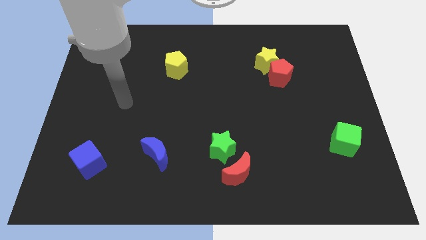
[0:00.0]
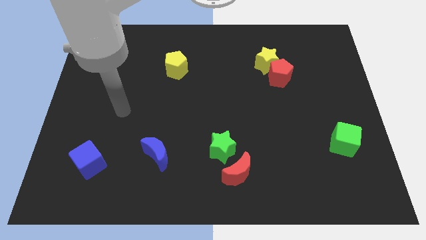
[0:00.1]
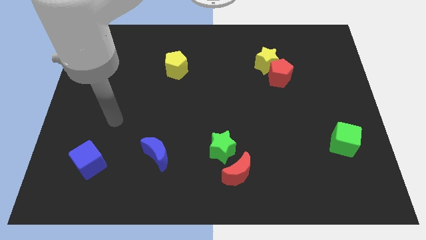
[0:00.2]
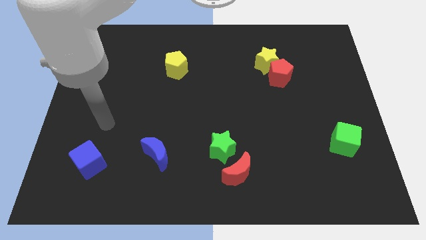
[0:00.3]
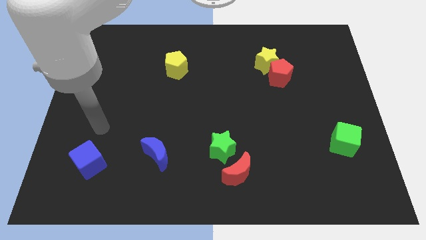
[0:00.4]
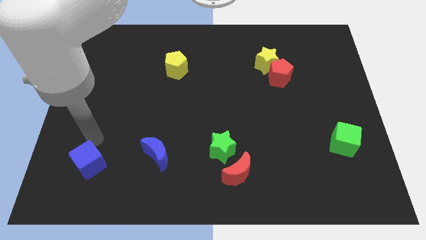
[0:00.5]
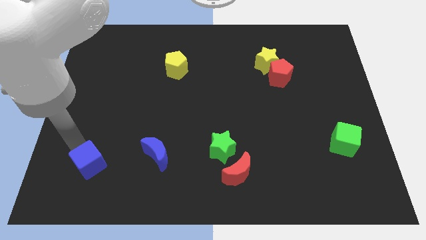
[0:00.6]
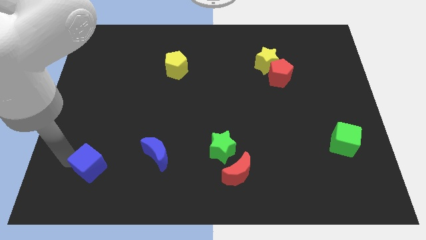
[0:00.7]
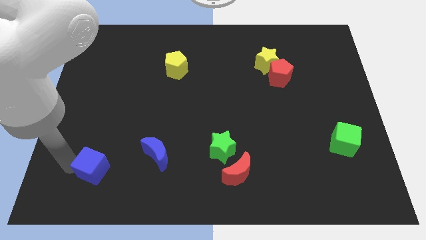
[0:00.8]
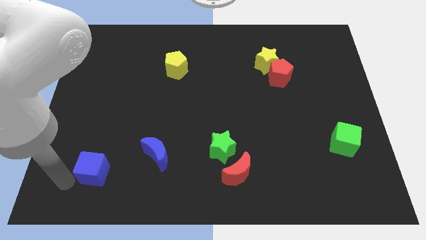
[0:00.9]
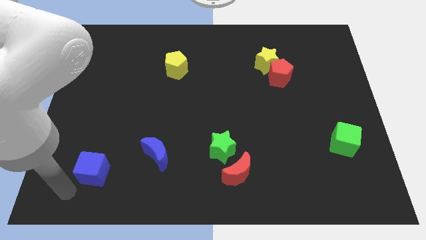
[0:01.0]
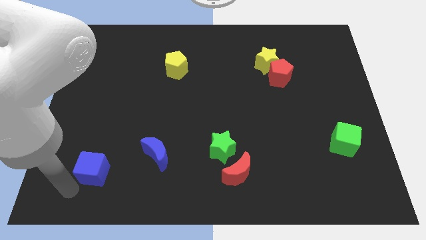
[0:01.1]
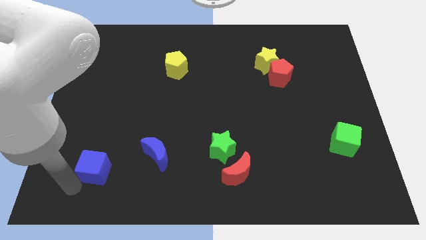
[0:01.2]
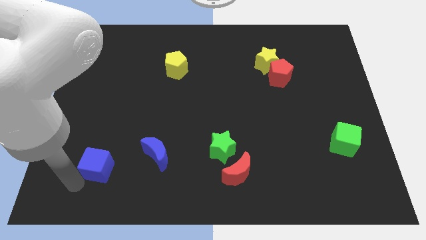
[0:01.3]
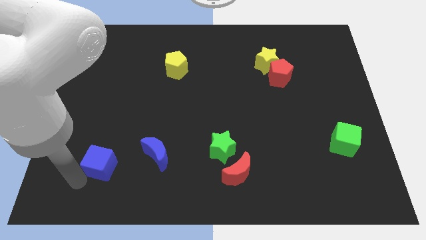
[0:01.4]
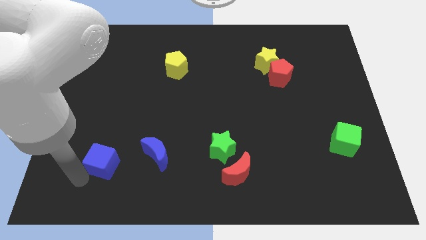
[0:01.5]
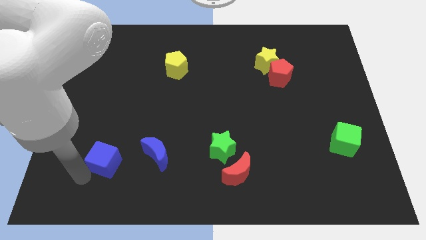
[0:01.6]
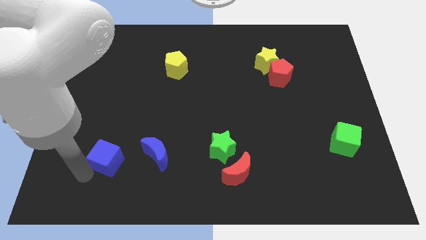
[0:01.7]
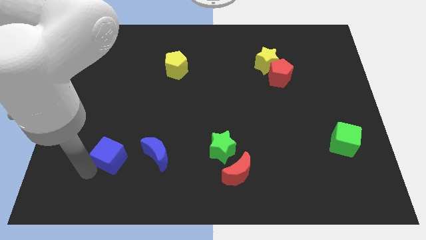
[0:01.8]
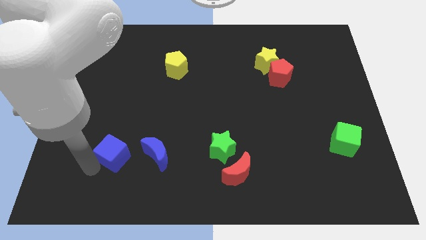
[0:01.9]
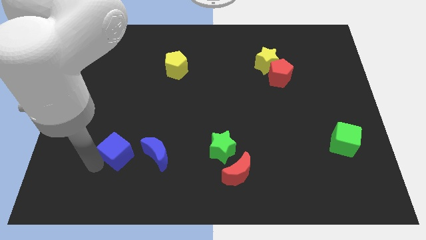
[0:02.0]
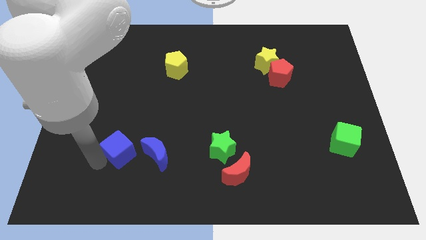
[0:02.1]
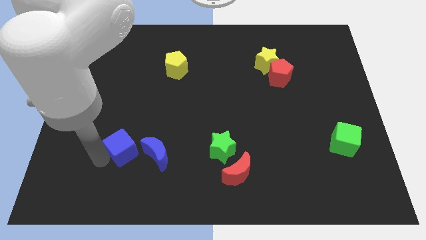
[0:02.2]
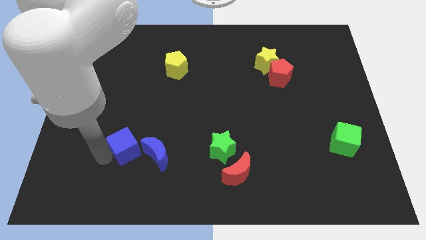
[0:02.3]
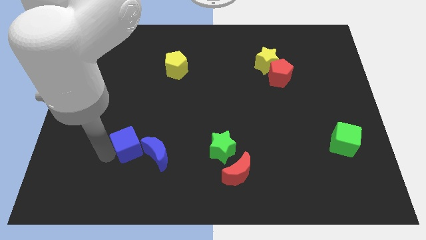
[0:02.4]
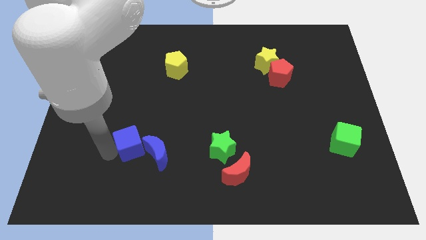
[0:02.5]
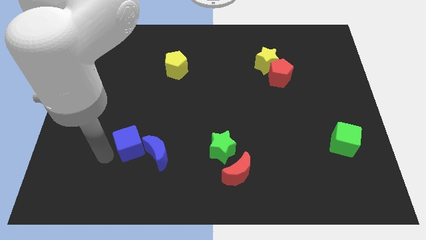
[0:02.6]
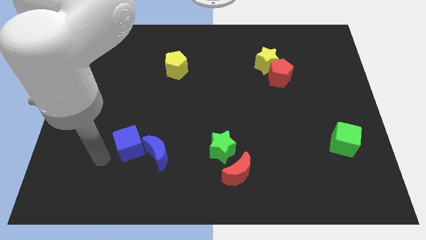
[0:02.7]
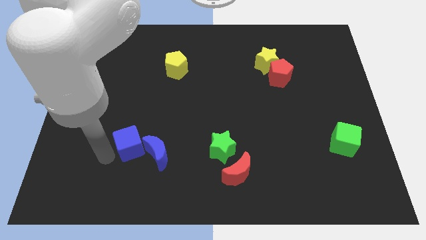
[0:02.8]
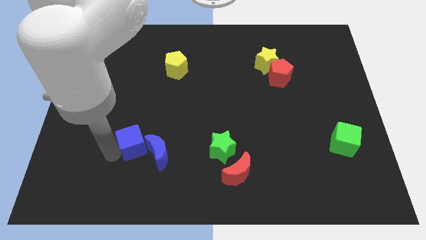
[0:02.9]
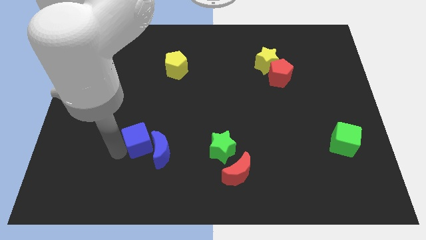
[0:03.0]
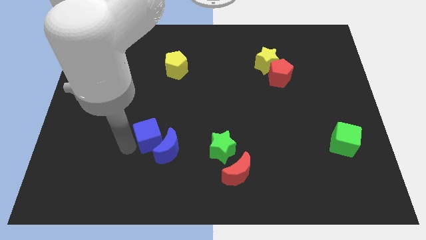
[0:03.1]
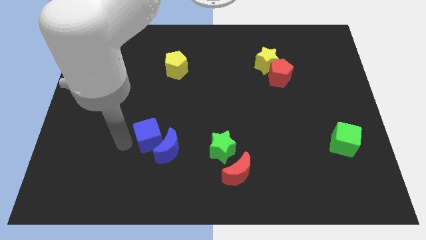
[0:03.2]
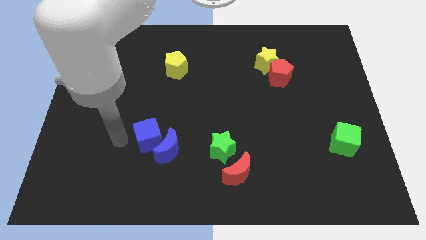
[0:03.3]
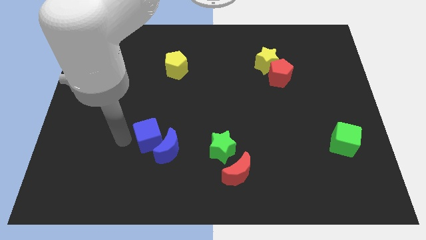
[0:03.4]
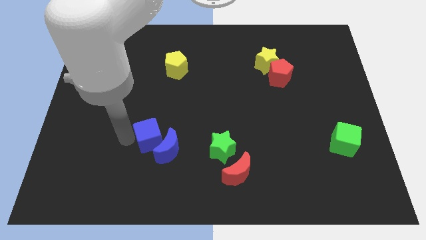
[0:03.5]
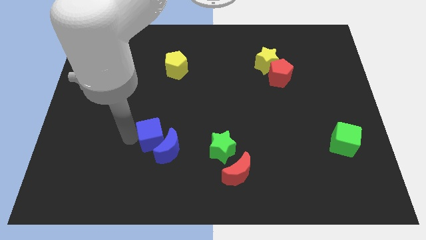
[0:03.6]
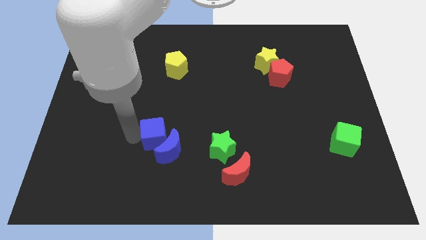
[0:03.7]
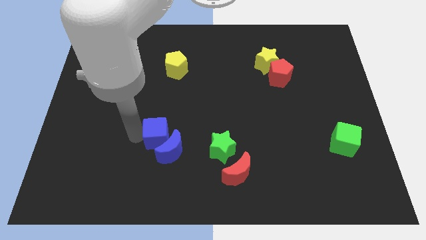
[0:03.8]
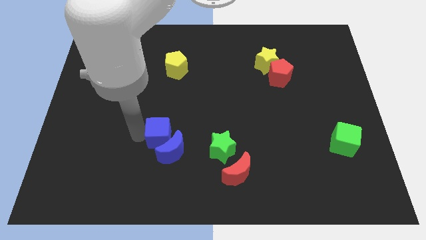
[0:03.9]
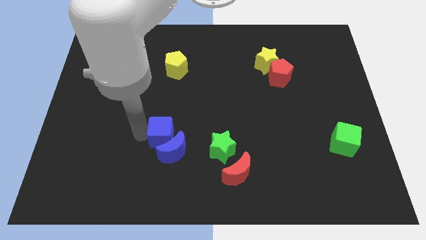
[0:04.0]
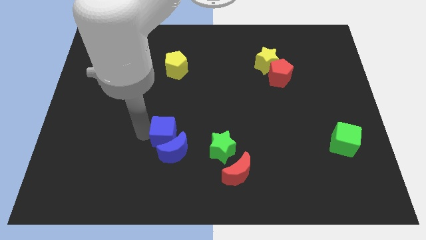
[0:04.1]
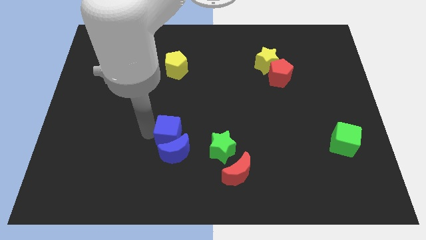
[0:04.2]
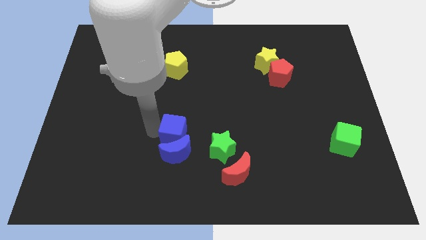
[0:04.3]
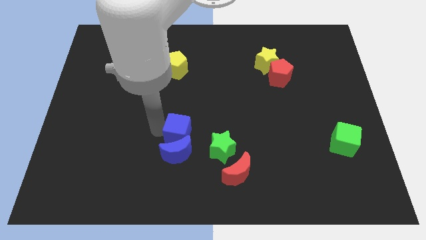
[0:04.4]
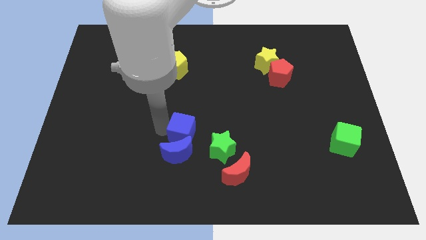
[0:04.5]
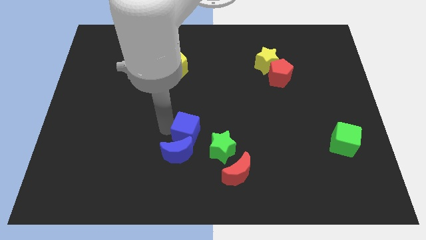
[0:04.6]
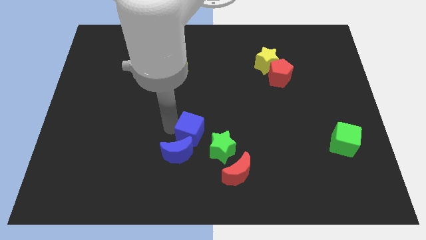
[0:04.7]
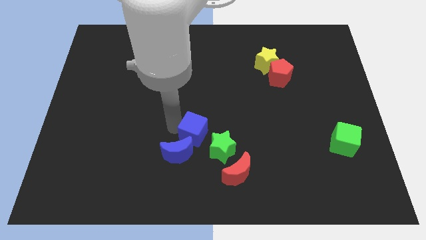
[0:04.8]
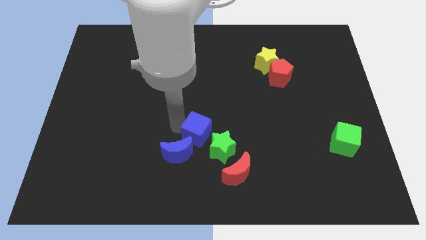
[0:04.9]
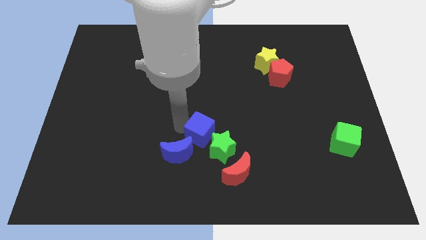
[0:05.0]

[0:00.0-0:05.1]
put the blue cube diagonally up and to the left of the red moon

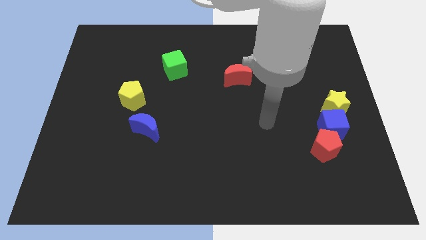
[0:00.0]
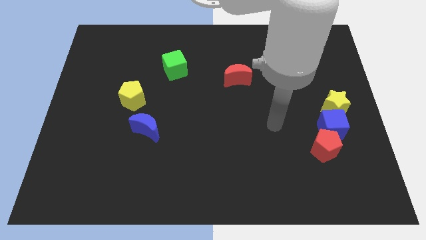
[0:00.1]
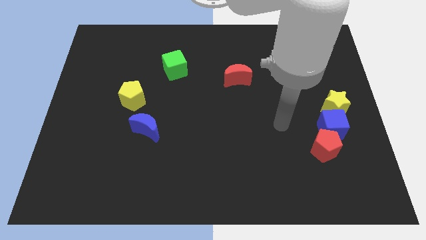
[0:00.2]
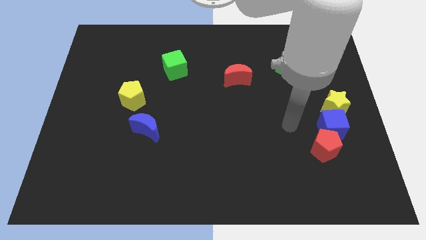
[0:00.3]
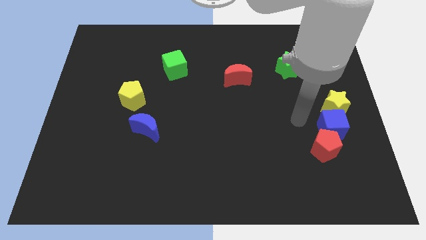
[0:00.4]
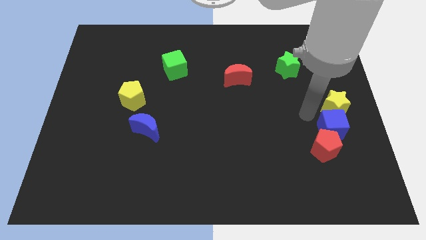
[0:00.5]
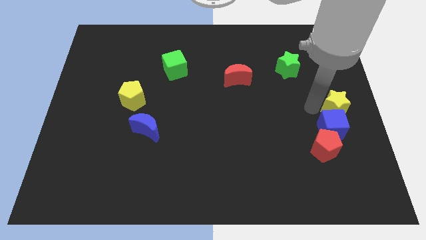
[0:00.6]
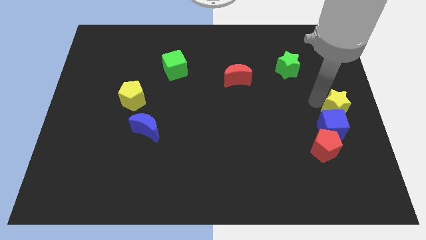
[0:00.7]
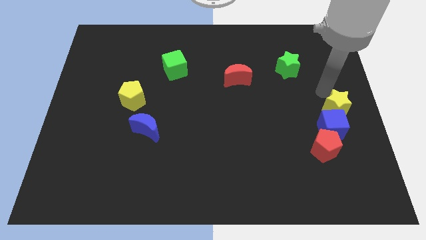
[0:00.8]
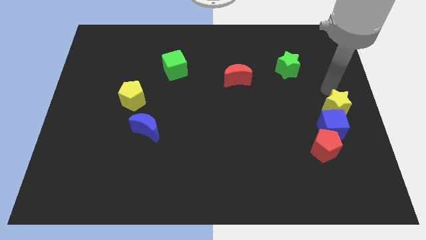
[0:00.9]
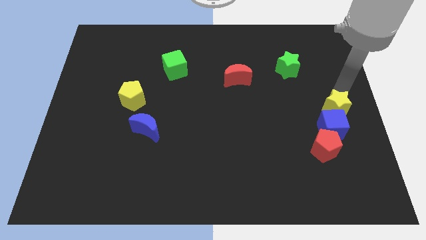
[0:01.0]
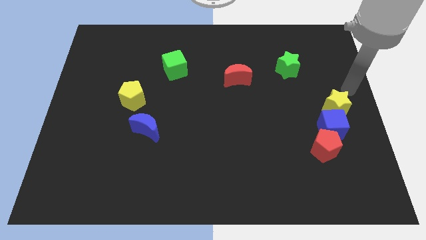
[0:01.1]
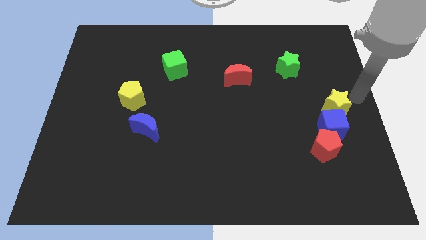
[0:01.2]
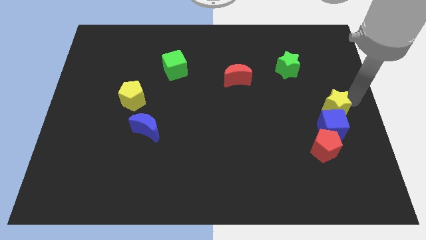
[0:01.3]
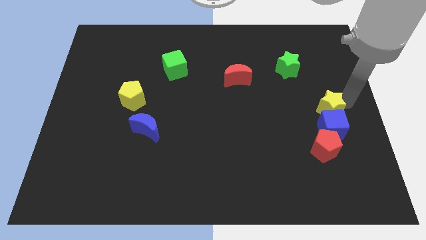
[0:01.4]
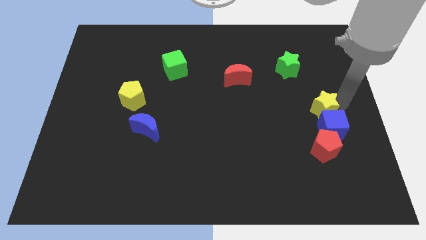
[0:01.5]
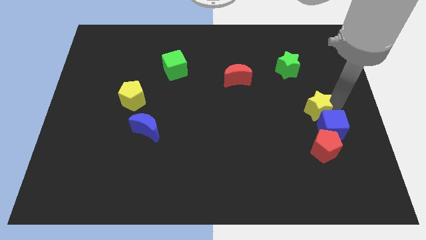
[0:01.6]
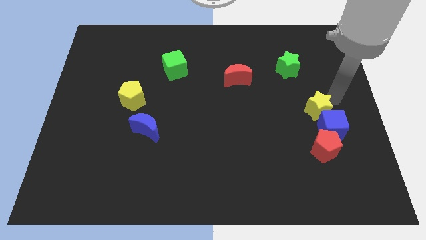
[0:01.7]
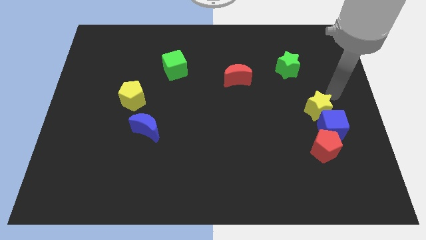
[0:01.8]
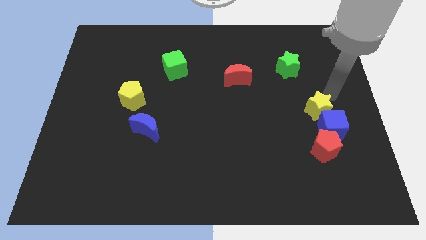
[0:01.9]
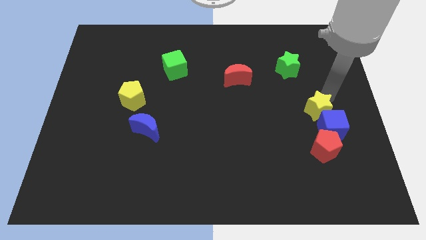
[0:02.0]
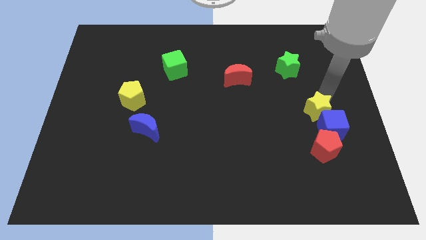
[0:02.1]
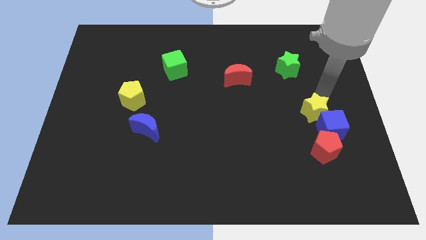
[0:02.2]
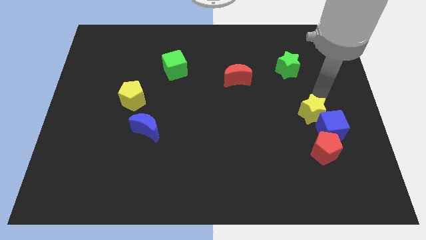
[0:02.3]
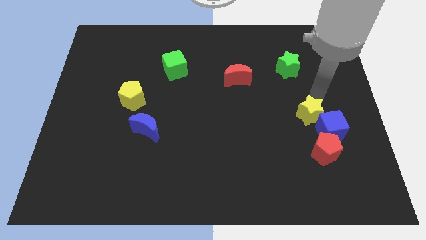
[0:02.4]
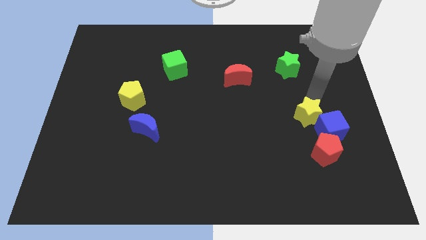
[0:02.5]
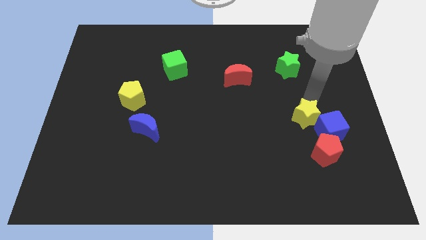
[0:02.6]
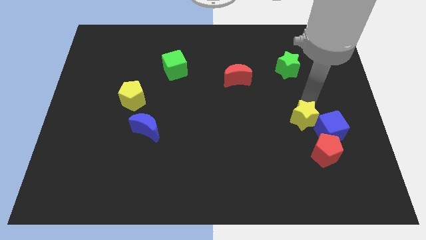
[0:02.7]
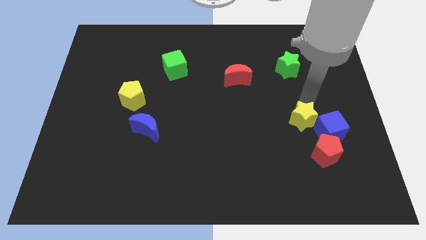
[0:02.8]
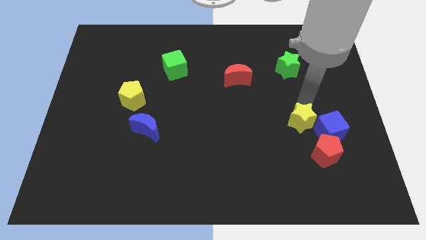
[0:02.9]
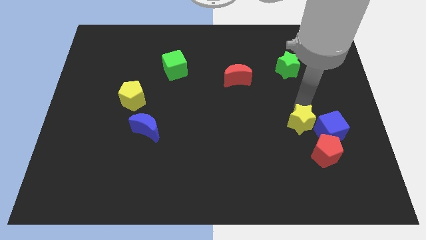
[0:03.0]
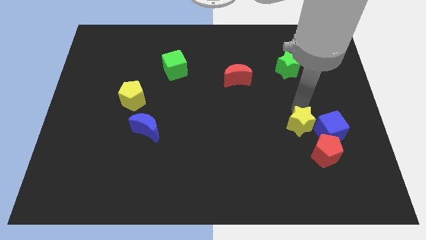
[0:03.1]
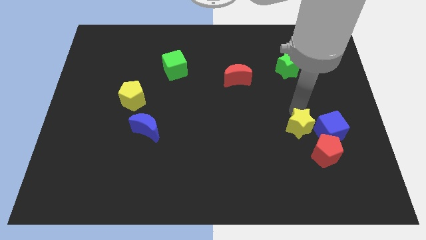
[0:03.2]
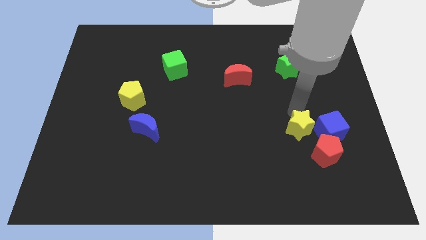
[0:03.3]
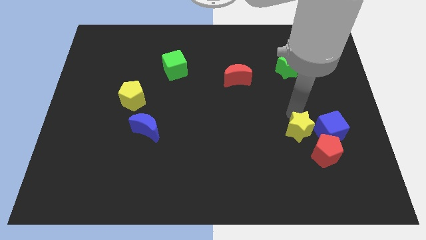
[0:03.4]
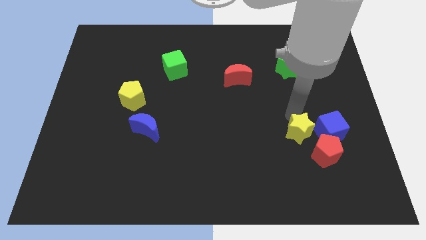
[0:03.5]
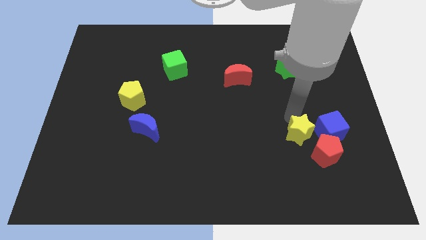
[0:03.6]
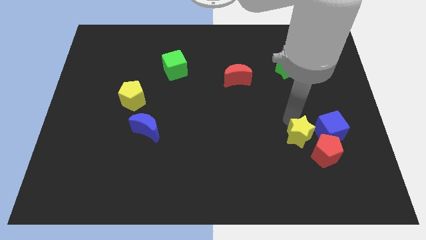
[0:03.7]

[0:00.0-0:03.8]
slide the yellow star just left of the red pentagon
